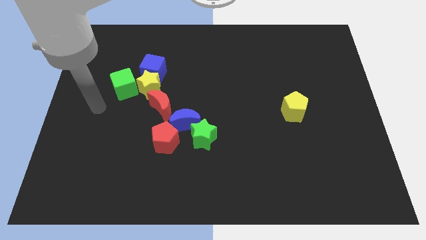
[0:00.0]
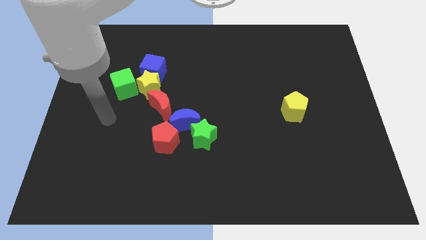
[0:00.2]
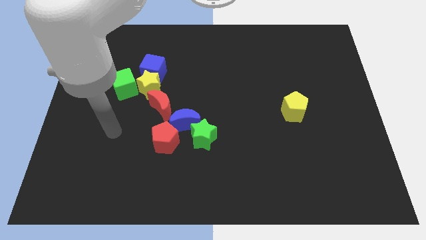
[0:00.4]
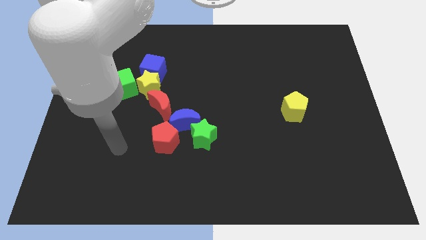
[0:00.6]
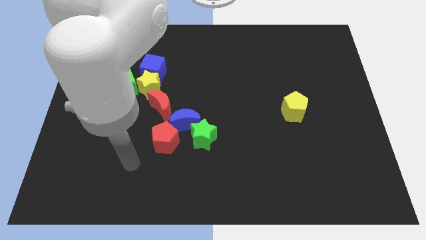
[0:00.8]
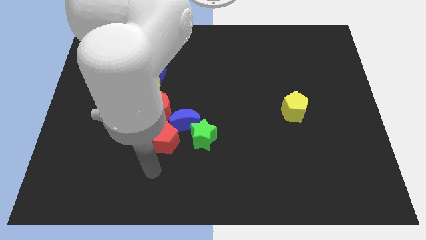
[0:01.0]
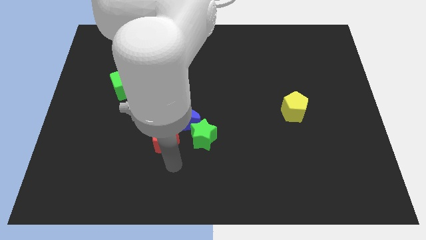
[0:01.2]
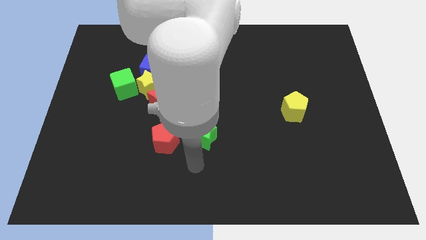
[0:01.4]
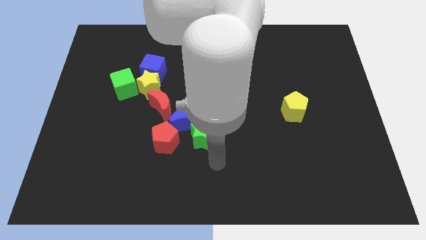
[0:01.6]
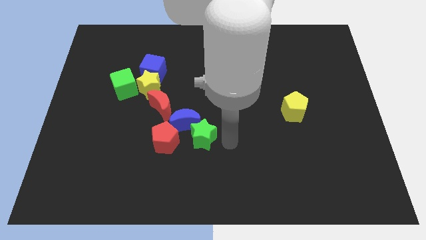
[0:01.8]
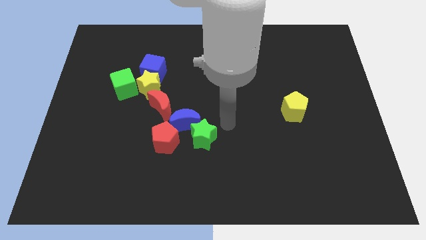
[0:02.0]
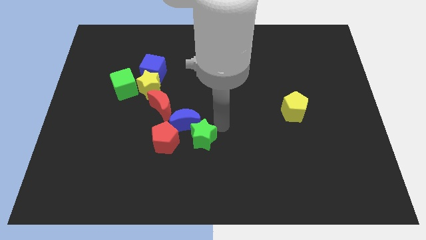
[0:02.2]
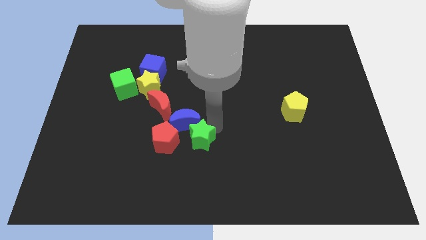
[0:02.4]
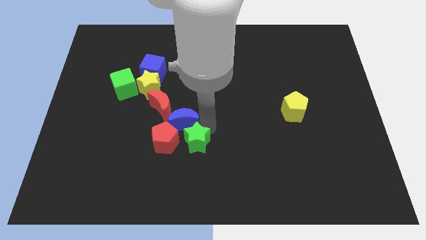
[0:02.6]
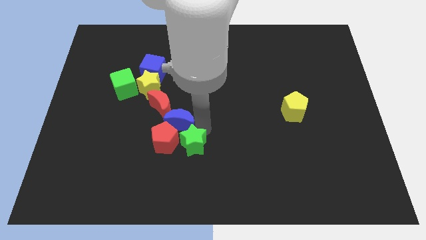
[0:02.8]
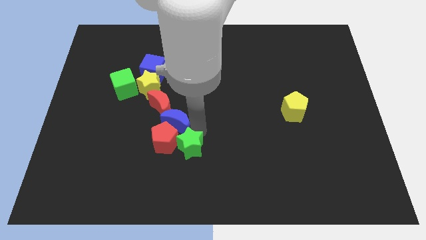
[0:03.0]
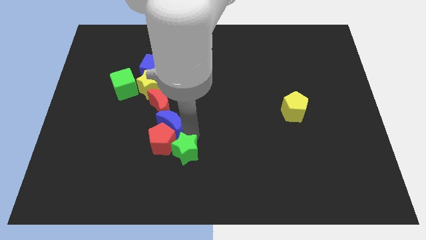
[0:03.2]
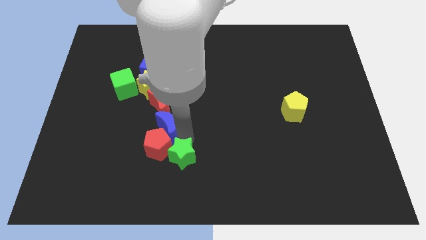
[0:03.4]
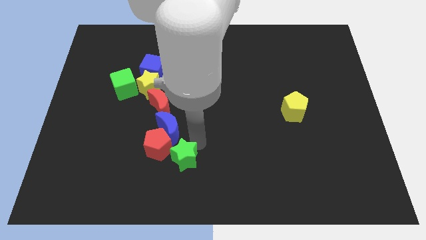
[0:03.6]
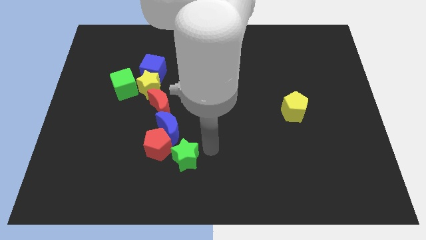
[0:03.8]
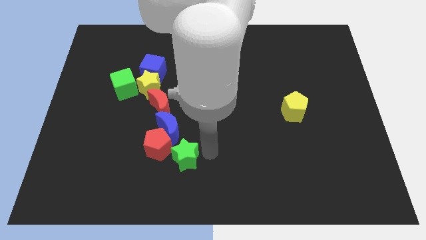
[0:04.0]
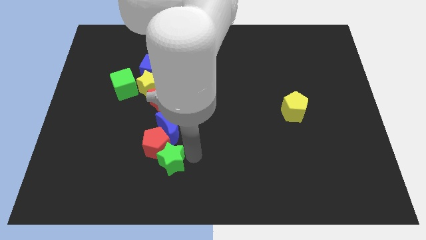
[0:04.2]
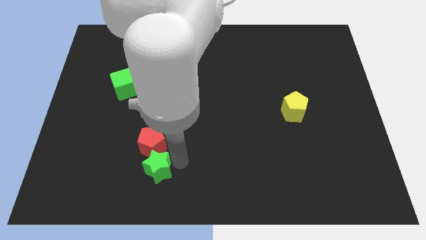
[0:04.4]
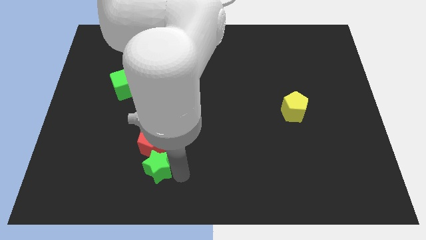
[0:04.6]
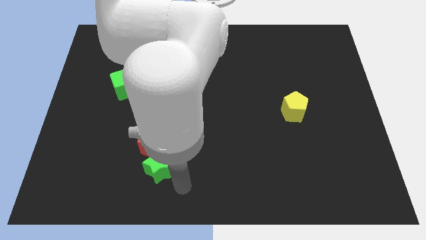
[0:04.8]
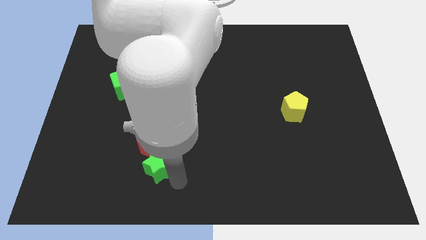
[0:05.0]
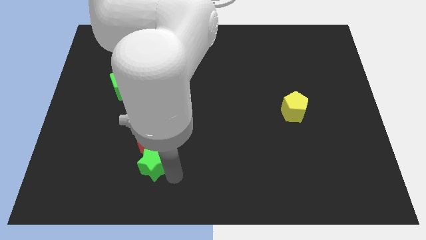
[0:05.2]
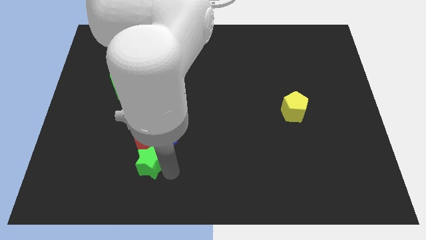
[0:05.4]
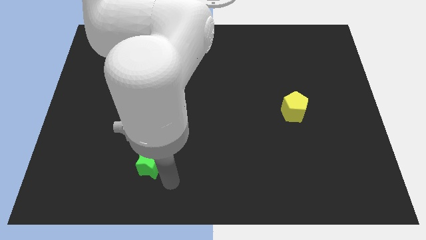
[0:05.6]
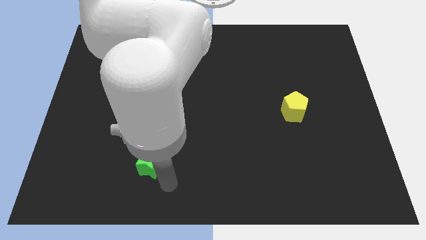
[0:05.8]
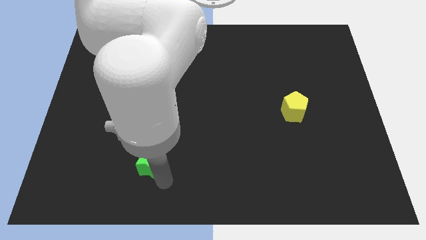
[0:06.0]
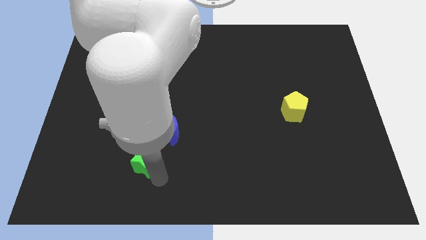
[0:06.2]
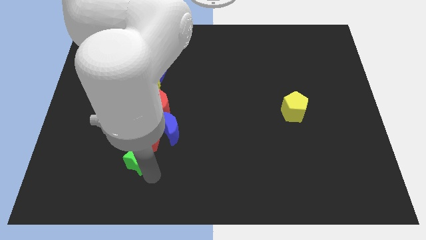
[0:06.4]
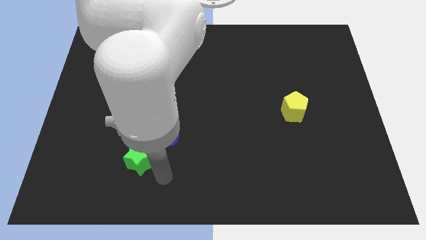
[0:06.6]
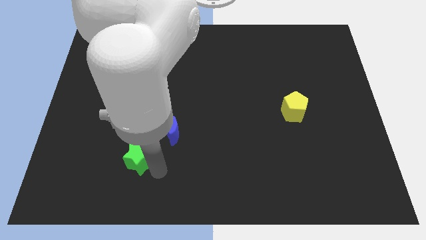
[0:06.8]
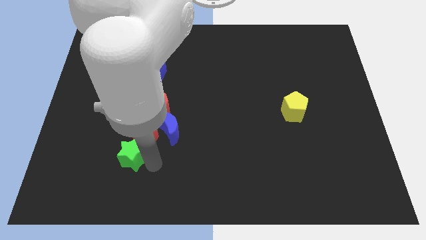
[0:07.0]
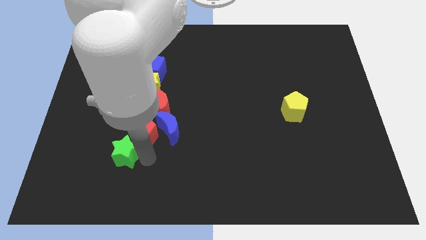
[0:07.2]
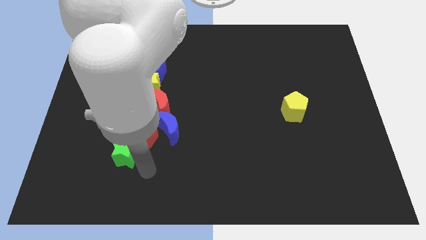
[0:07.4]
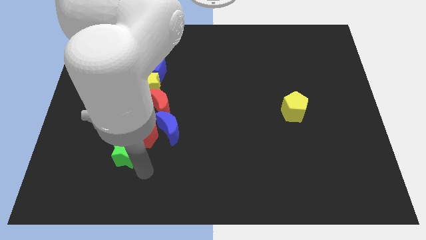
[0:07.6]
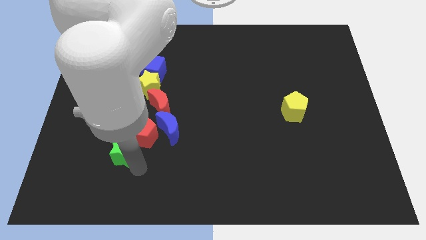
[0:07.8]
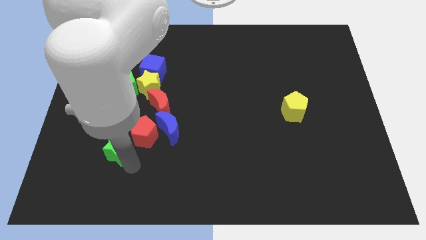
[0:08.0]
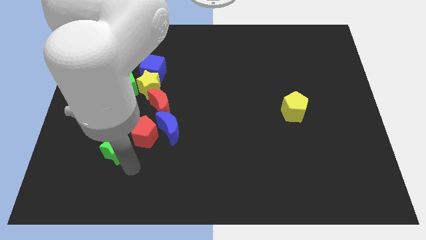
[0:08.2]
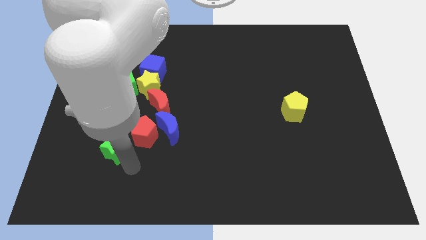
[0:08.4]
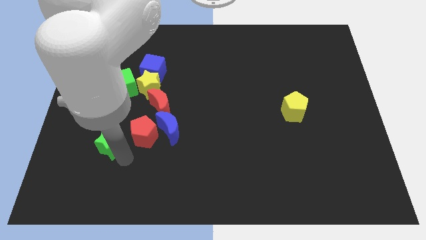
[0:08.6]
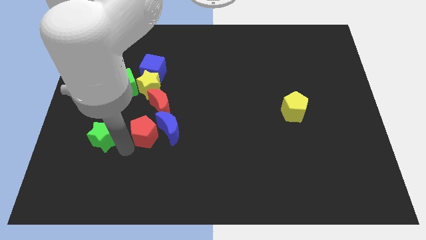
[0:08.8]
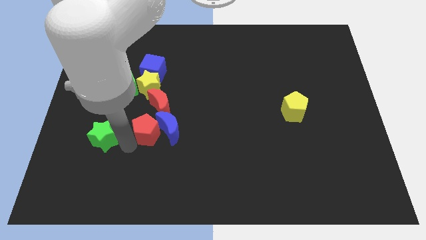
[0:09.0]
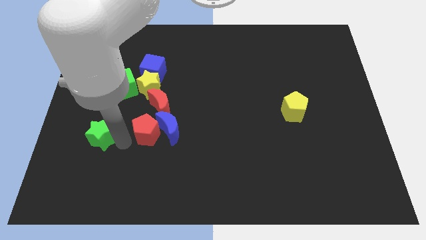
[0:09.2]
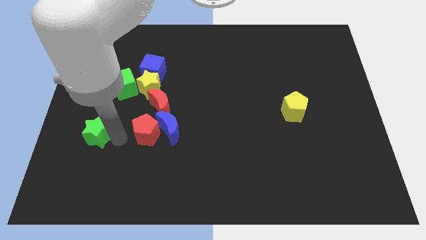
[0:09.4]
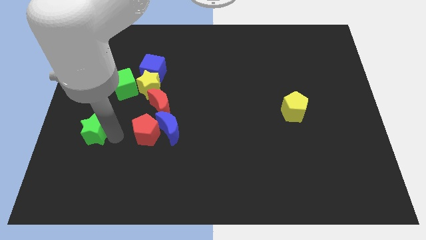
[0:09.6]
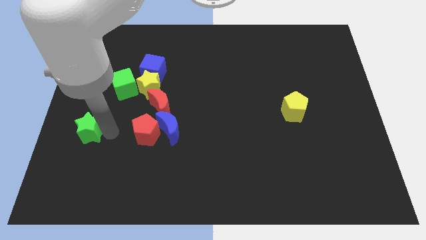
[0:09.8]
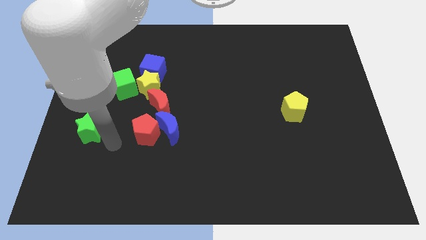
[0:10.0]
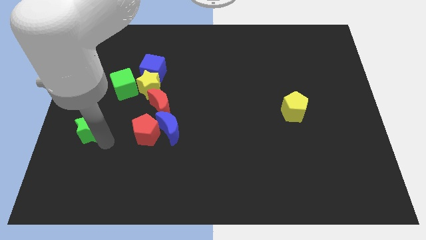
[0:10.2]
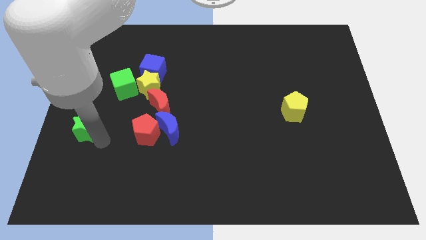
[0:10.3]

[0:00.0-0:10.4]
slide the green star to the left side of the board

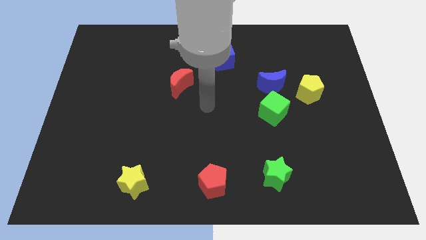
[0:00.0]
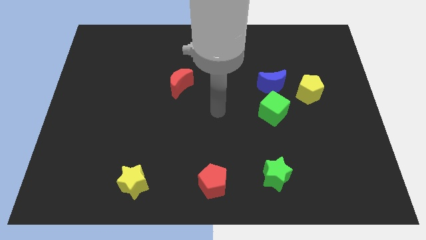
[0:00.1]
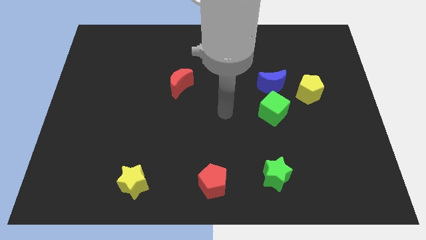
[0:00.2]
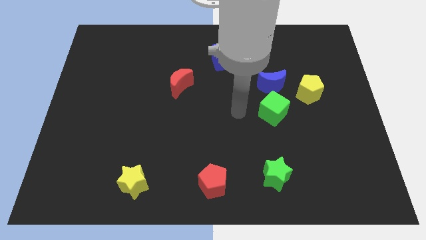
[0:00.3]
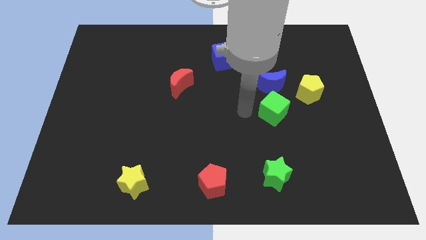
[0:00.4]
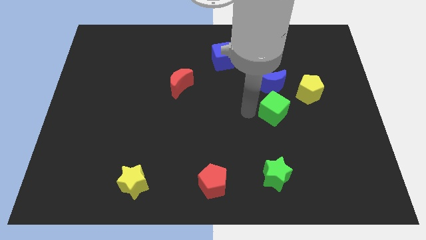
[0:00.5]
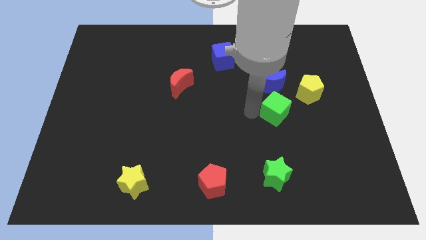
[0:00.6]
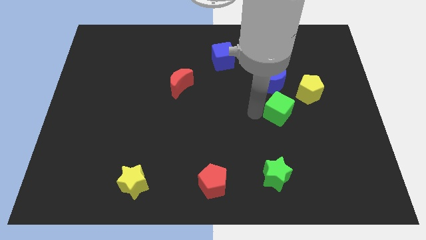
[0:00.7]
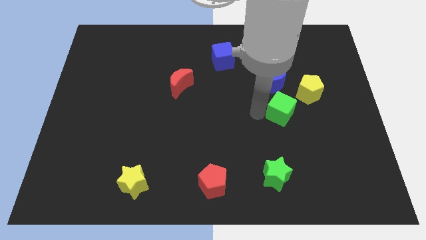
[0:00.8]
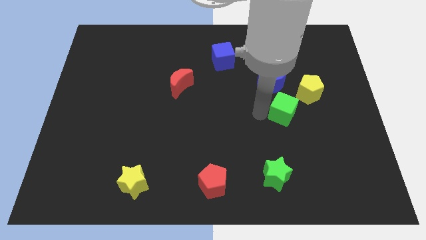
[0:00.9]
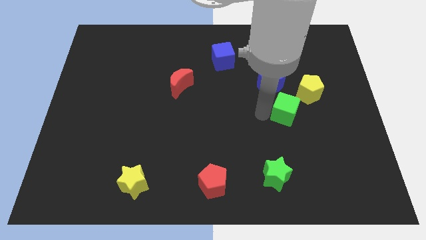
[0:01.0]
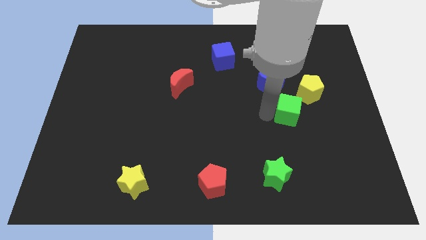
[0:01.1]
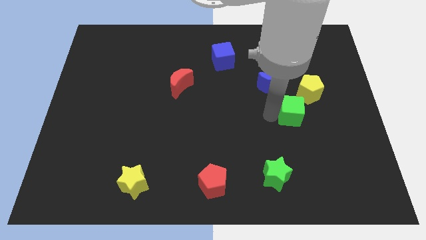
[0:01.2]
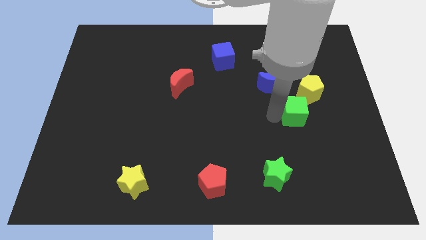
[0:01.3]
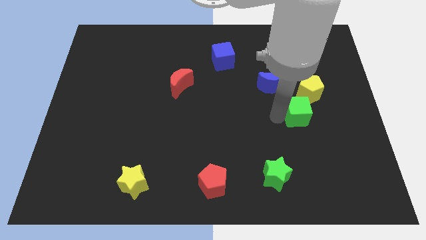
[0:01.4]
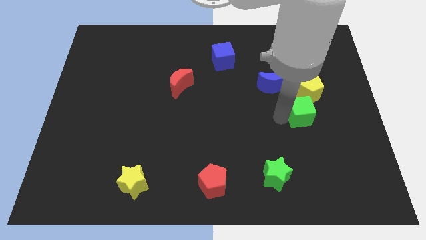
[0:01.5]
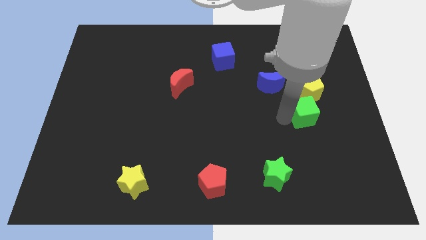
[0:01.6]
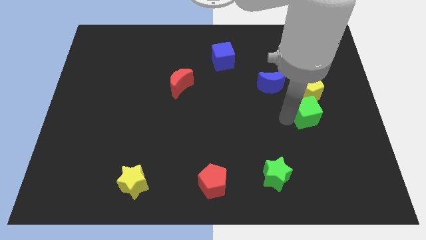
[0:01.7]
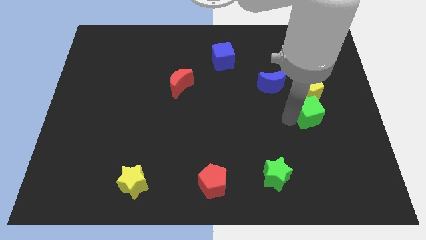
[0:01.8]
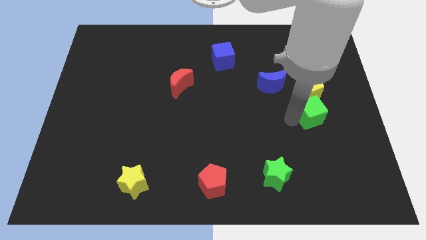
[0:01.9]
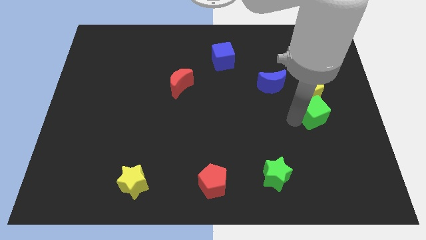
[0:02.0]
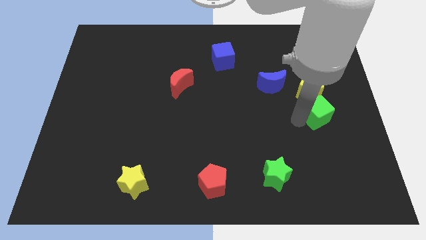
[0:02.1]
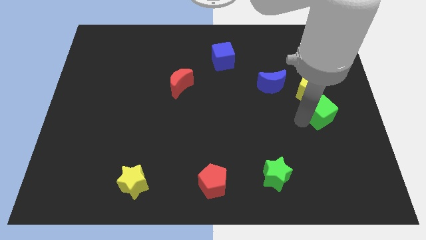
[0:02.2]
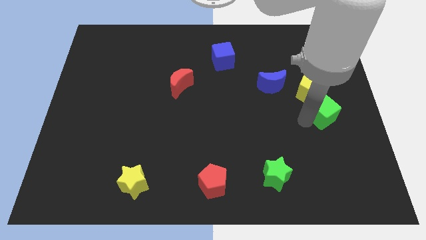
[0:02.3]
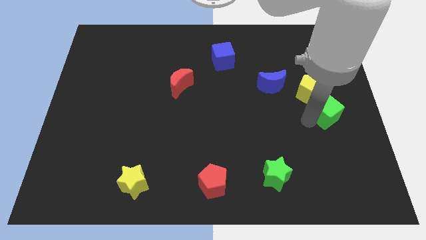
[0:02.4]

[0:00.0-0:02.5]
move the green cube to the right side
